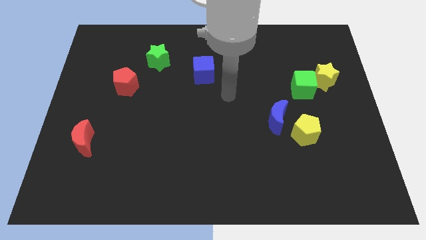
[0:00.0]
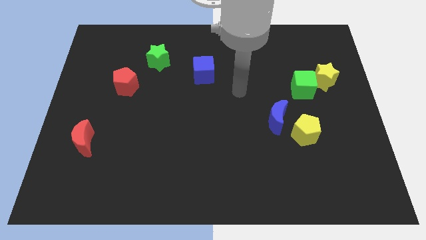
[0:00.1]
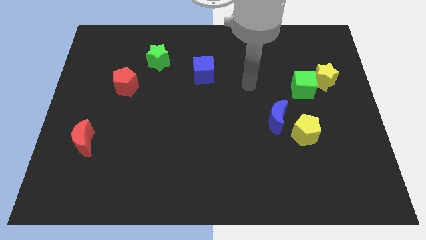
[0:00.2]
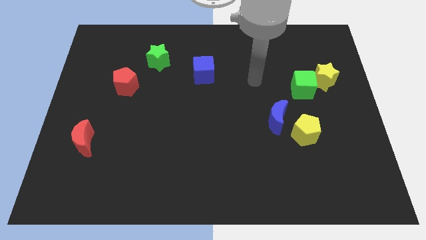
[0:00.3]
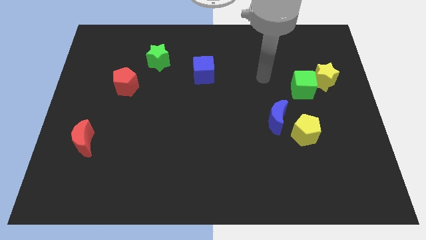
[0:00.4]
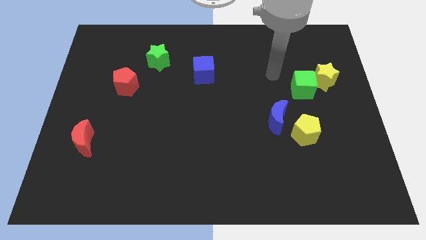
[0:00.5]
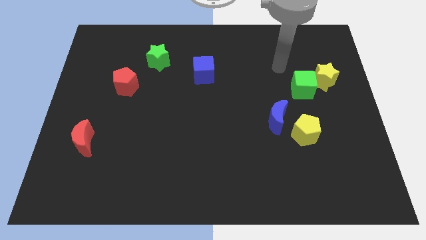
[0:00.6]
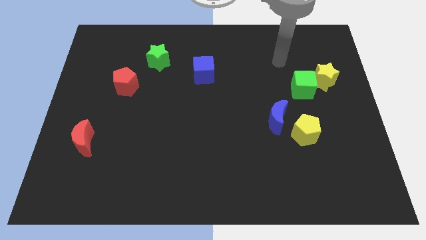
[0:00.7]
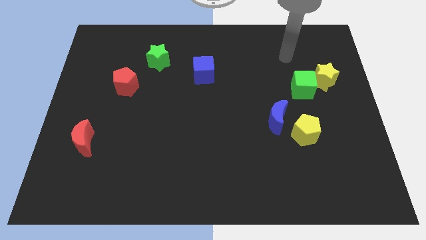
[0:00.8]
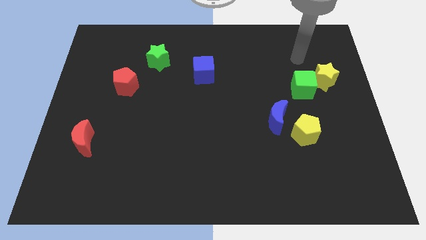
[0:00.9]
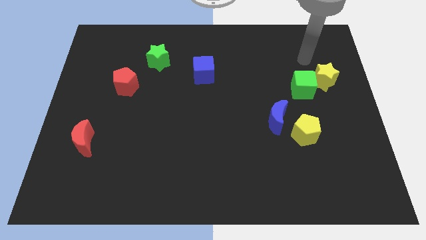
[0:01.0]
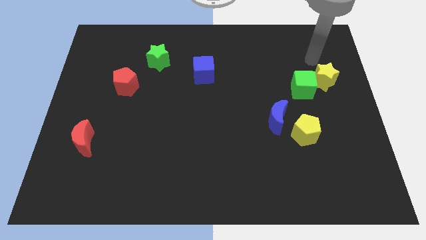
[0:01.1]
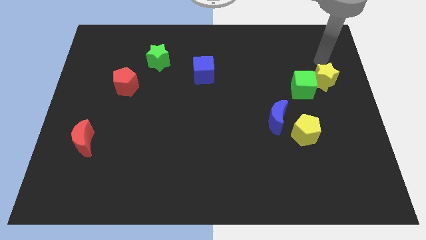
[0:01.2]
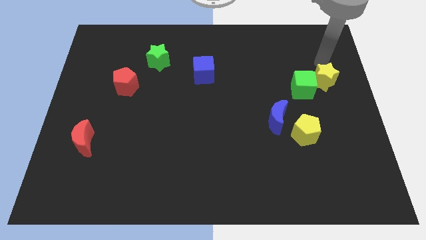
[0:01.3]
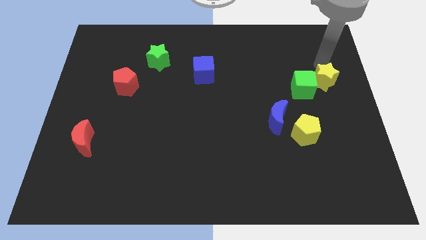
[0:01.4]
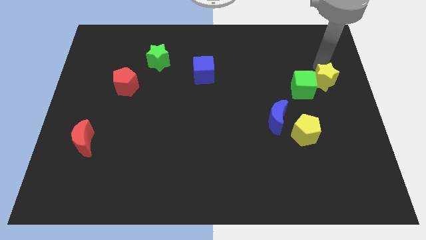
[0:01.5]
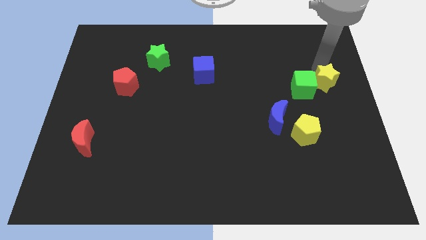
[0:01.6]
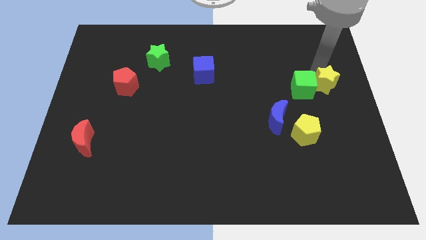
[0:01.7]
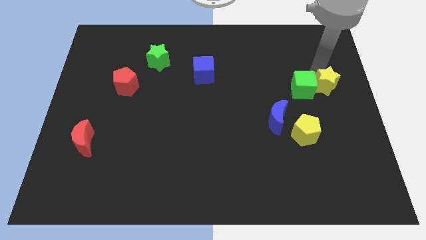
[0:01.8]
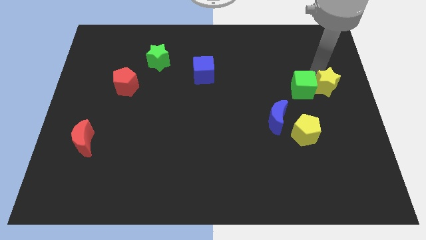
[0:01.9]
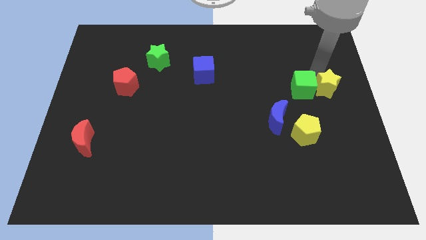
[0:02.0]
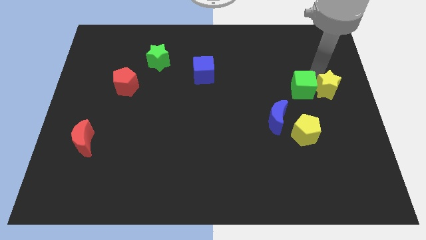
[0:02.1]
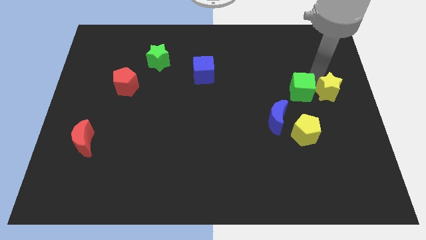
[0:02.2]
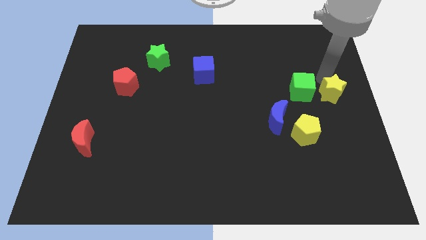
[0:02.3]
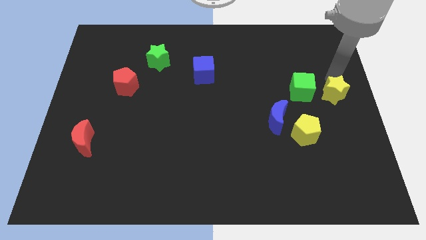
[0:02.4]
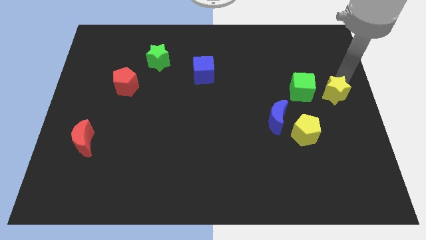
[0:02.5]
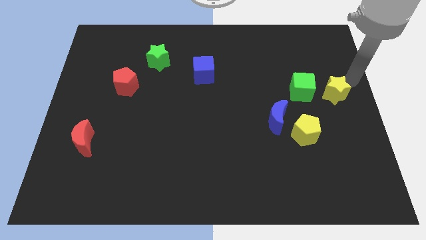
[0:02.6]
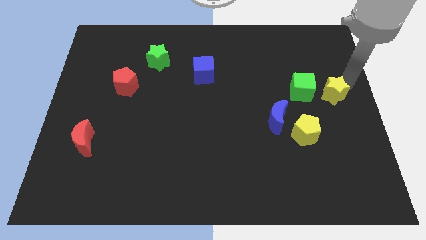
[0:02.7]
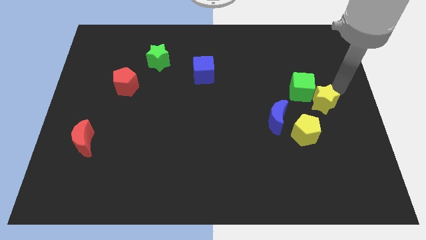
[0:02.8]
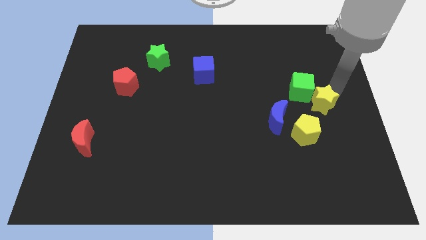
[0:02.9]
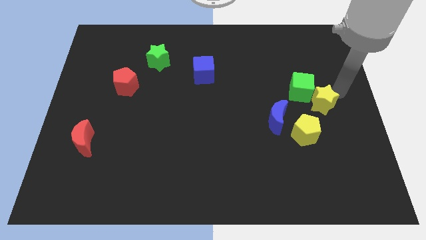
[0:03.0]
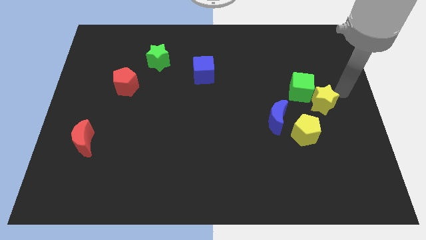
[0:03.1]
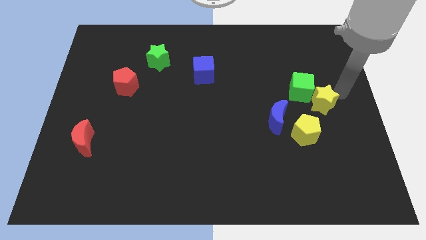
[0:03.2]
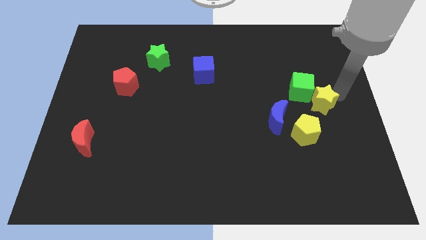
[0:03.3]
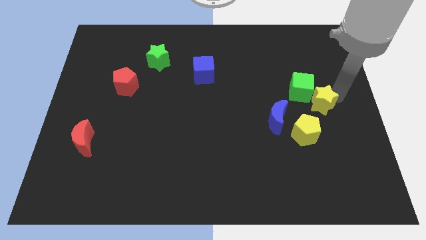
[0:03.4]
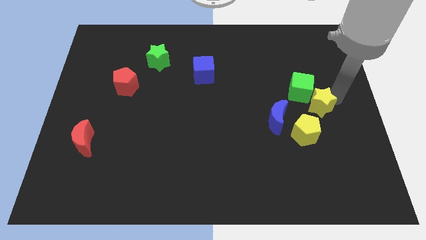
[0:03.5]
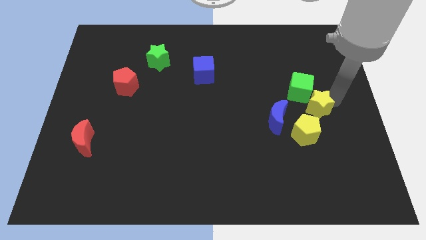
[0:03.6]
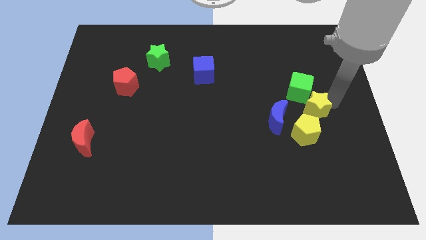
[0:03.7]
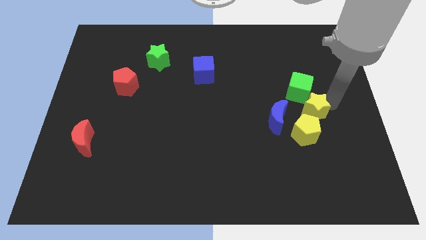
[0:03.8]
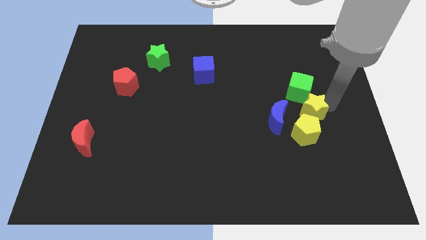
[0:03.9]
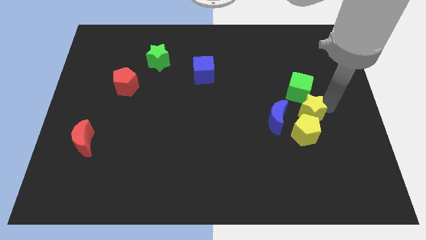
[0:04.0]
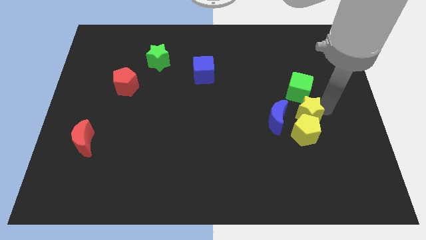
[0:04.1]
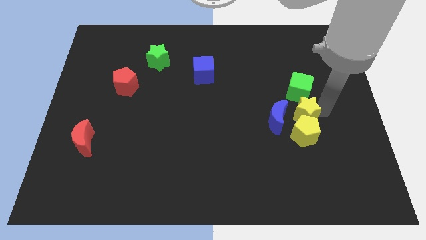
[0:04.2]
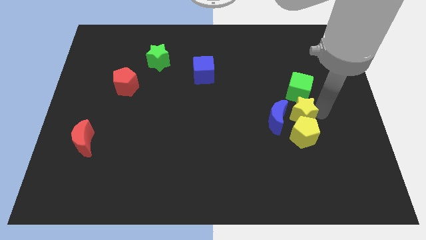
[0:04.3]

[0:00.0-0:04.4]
push the yellow star next to the blue moon

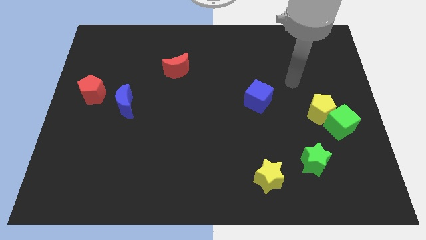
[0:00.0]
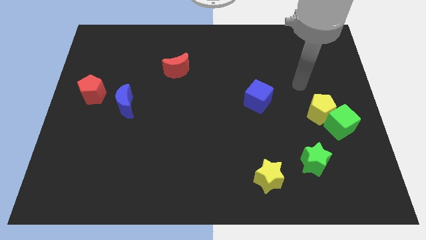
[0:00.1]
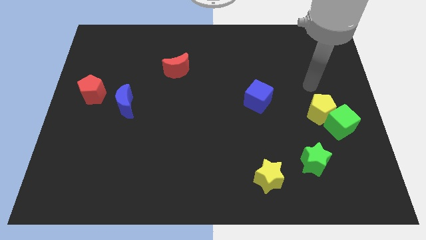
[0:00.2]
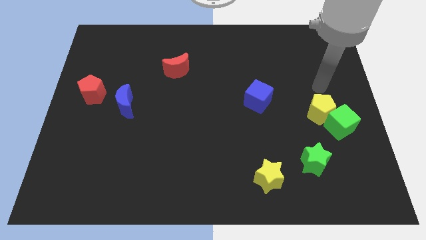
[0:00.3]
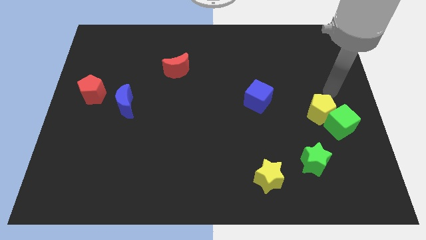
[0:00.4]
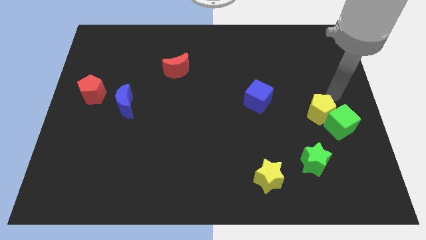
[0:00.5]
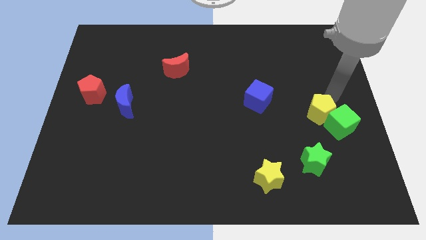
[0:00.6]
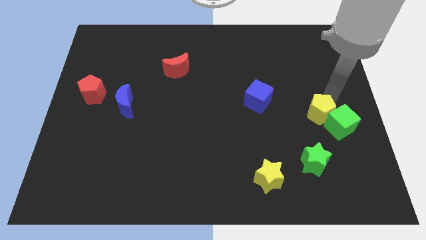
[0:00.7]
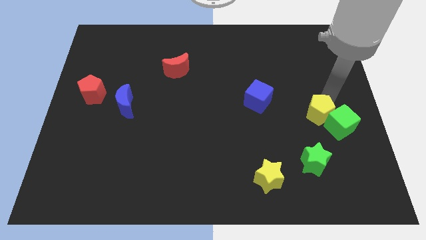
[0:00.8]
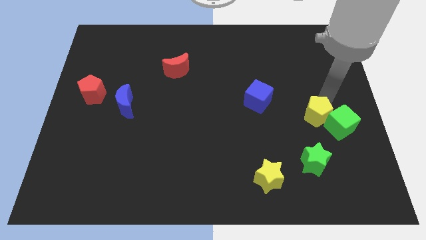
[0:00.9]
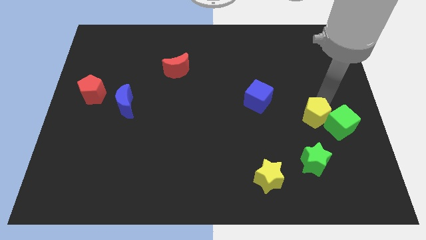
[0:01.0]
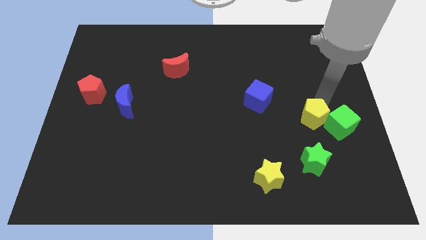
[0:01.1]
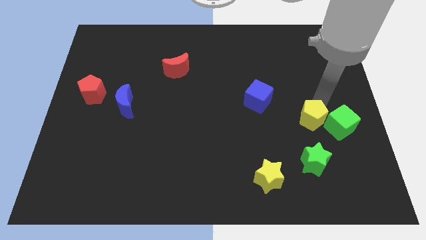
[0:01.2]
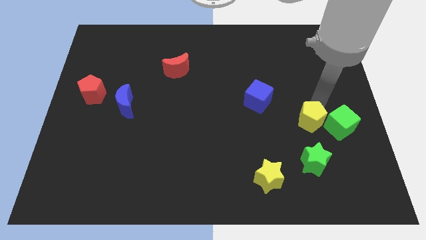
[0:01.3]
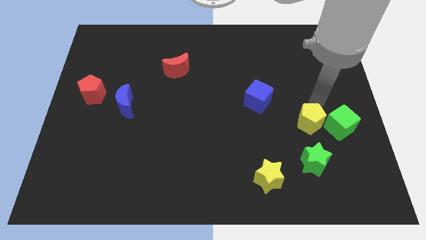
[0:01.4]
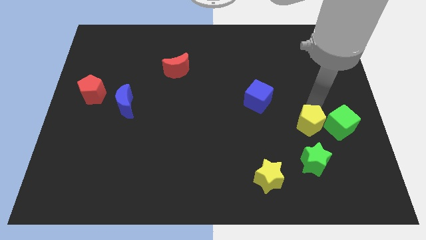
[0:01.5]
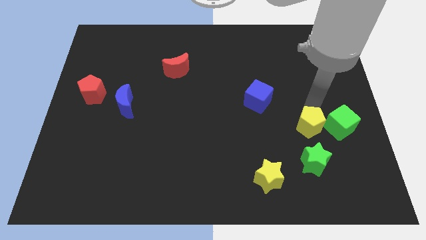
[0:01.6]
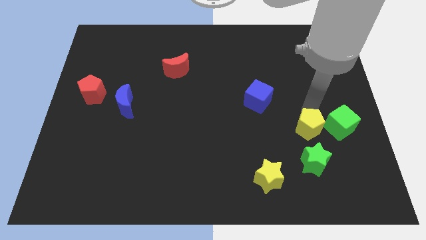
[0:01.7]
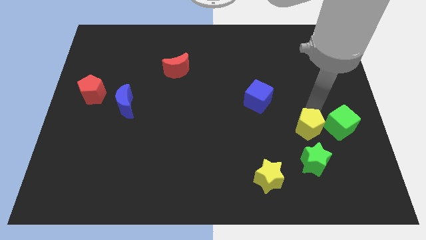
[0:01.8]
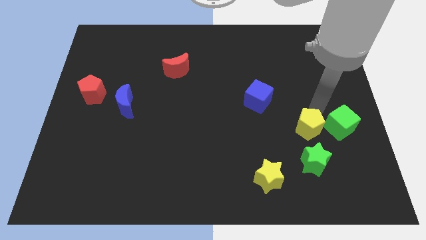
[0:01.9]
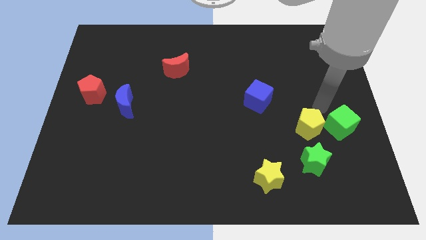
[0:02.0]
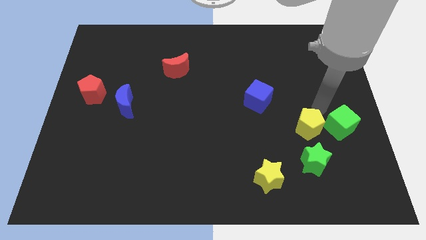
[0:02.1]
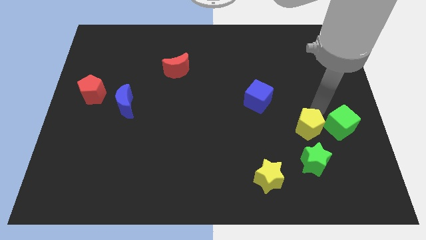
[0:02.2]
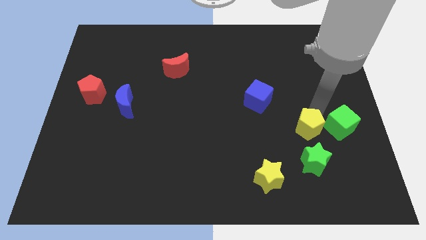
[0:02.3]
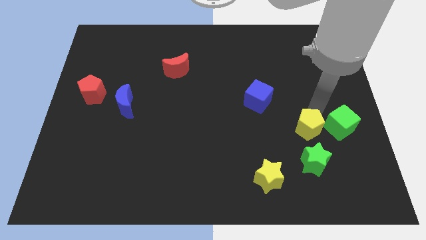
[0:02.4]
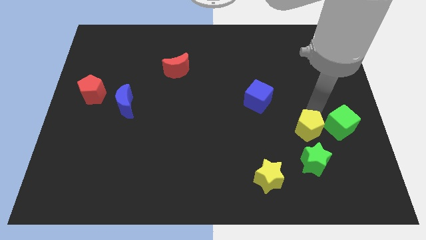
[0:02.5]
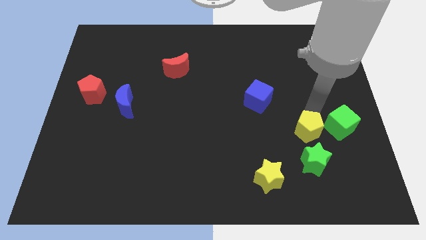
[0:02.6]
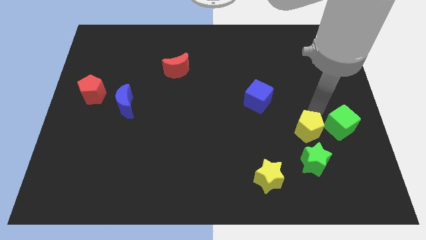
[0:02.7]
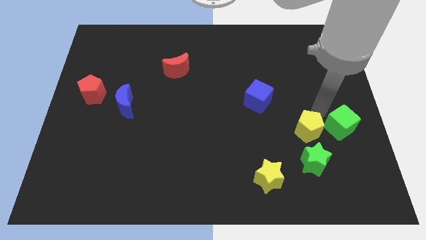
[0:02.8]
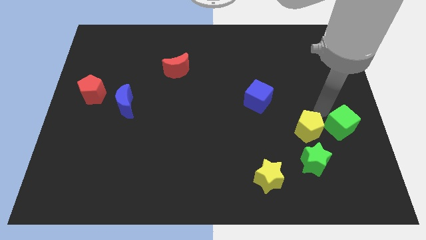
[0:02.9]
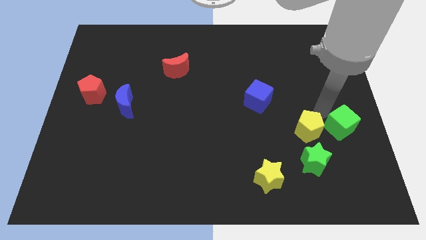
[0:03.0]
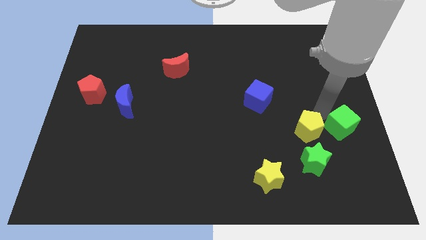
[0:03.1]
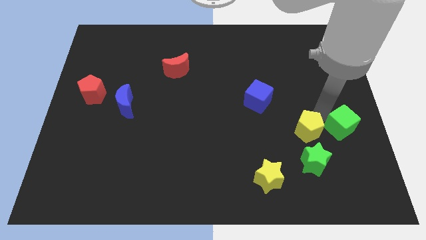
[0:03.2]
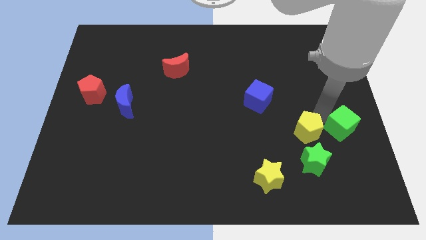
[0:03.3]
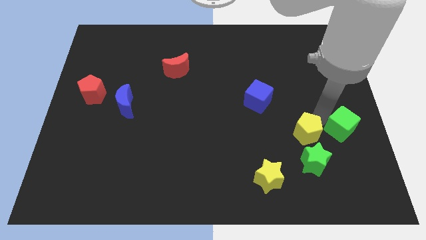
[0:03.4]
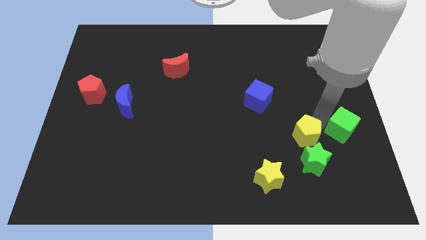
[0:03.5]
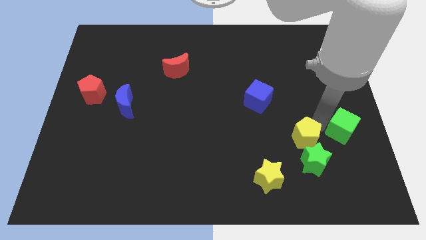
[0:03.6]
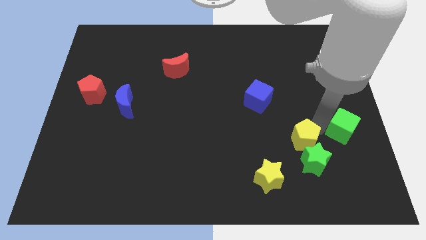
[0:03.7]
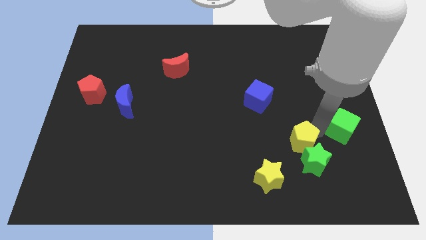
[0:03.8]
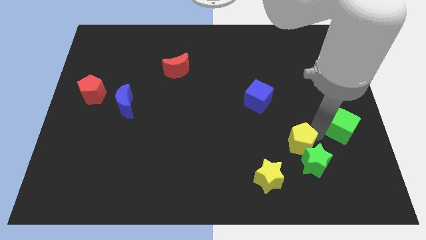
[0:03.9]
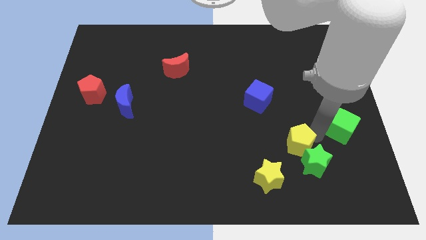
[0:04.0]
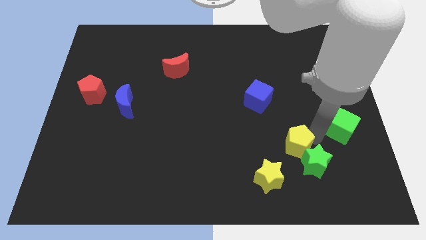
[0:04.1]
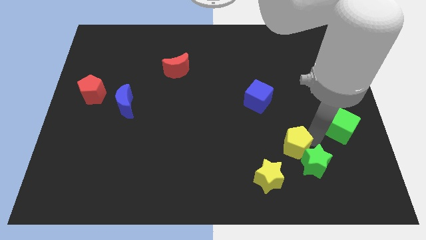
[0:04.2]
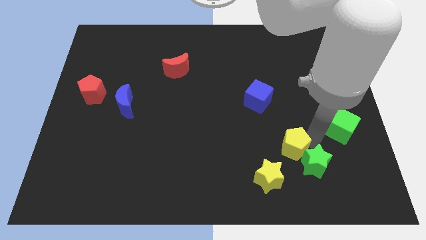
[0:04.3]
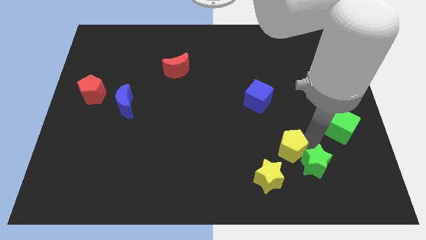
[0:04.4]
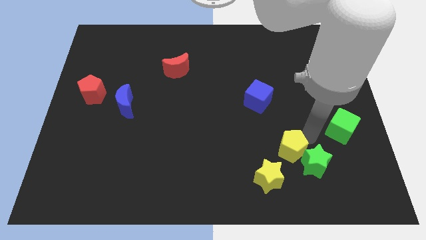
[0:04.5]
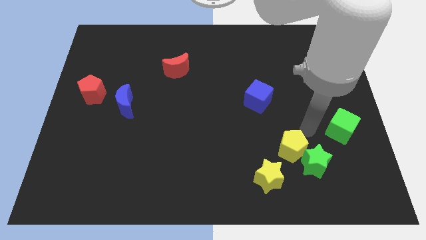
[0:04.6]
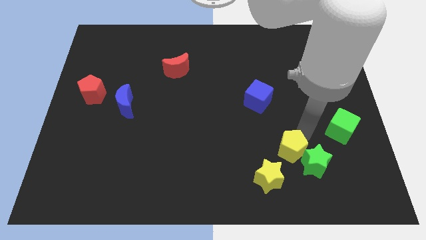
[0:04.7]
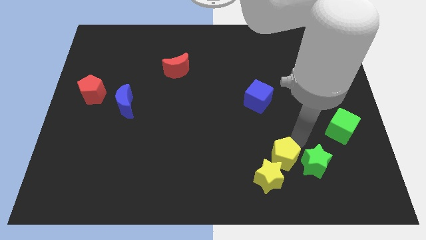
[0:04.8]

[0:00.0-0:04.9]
slide the yellow pentagon towards the yellow star
